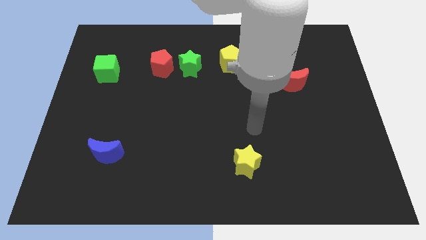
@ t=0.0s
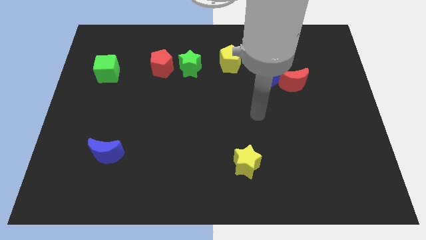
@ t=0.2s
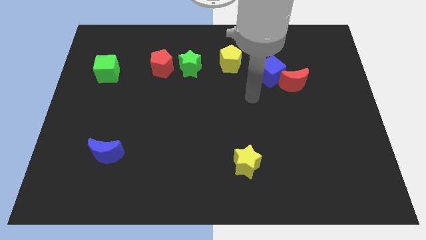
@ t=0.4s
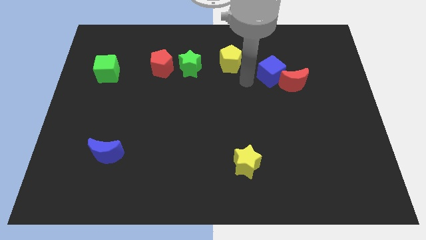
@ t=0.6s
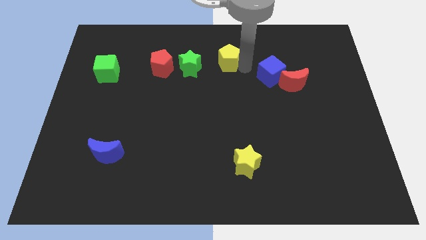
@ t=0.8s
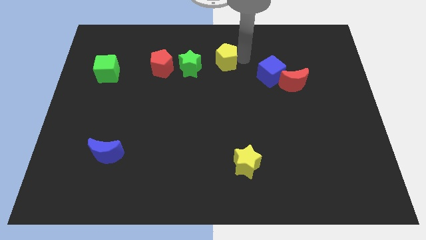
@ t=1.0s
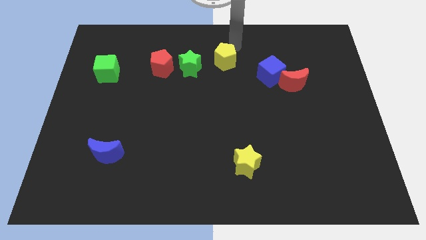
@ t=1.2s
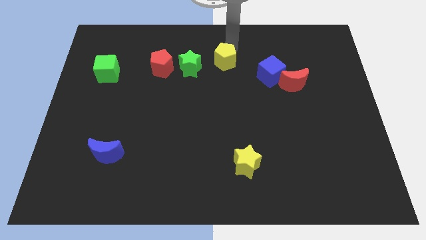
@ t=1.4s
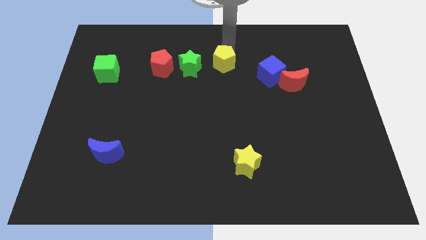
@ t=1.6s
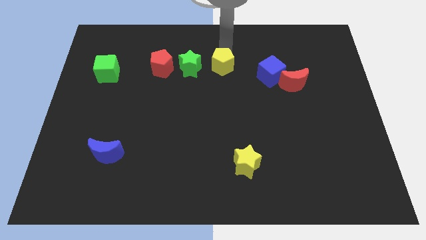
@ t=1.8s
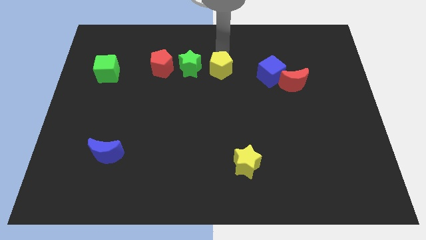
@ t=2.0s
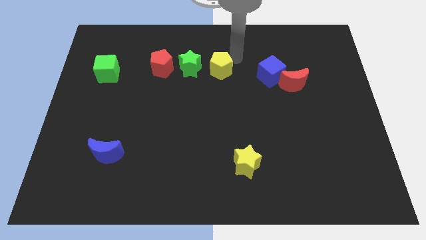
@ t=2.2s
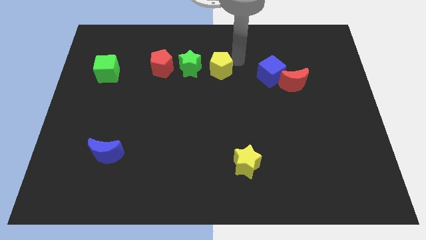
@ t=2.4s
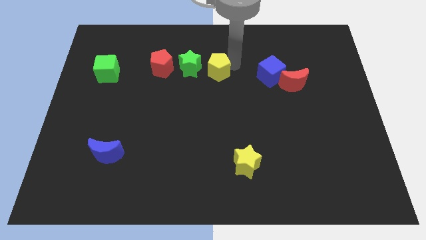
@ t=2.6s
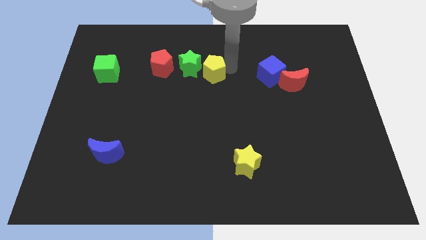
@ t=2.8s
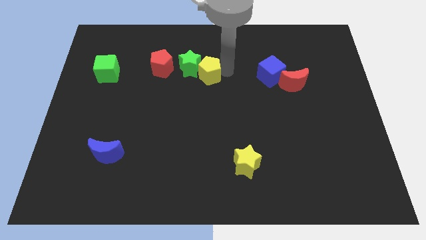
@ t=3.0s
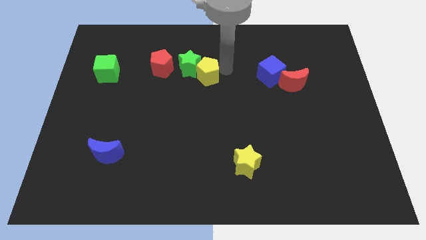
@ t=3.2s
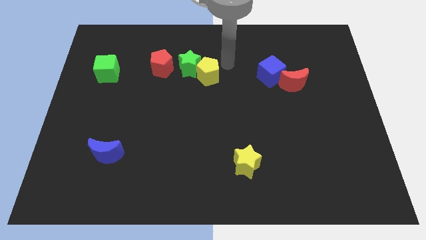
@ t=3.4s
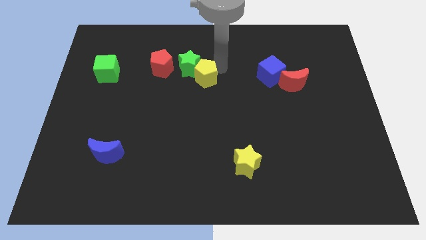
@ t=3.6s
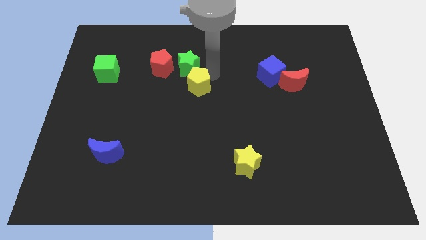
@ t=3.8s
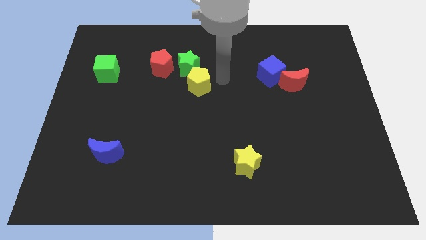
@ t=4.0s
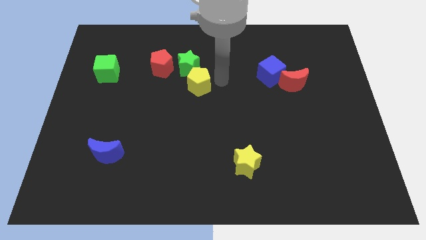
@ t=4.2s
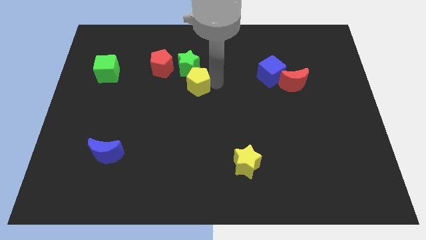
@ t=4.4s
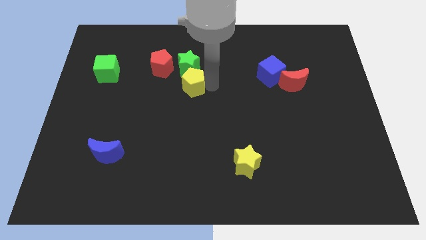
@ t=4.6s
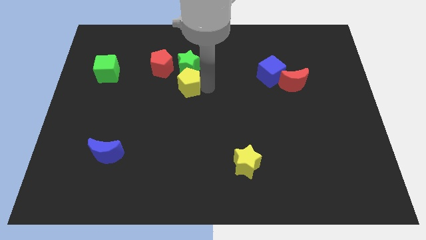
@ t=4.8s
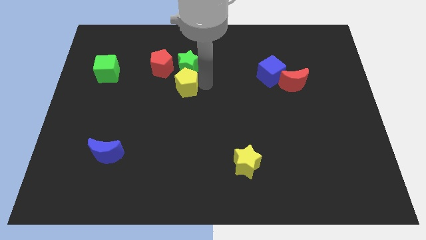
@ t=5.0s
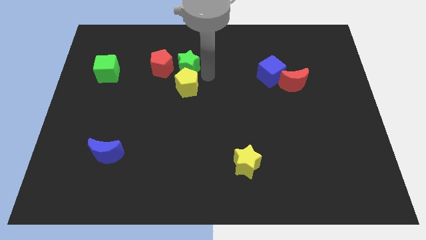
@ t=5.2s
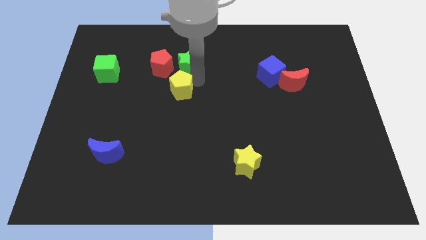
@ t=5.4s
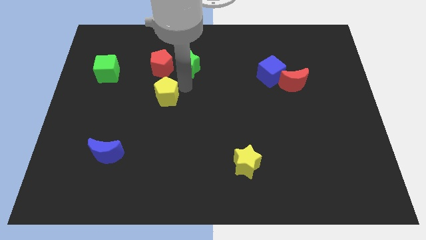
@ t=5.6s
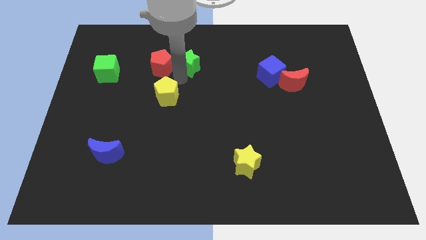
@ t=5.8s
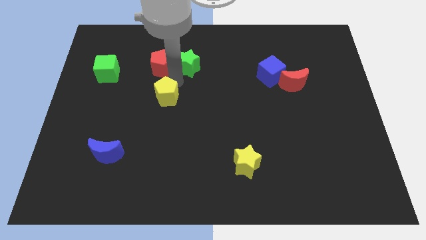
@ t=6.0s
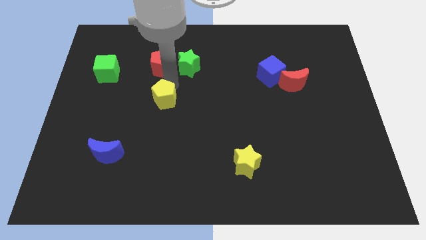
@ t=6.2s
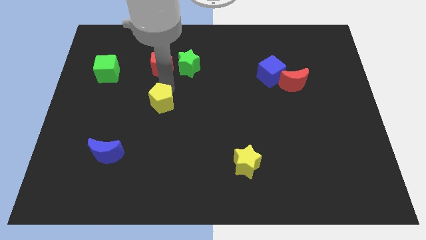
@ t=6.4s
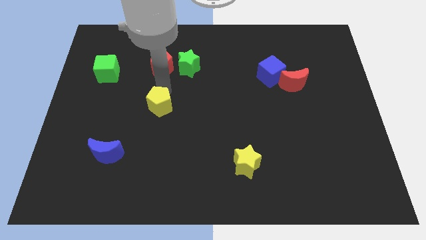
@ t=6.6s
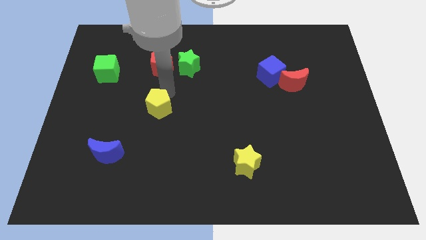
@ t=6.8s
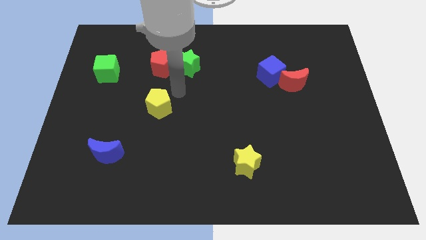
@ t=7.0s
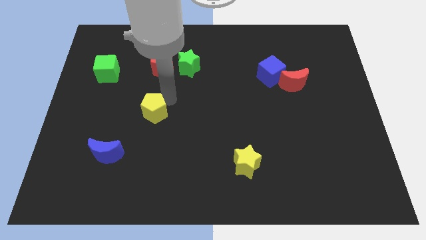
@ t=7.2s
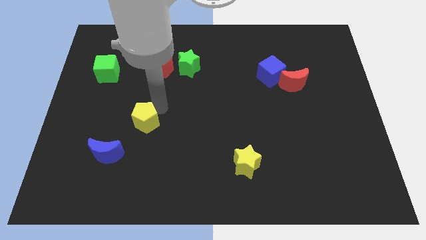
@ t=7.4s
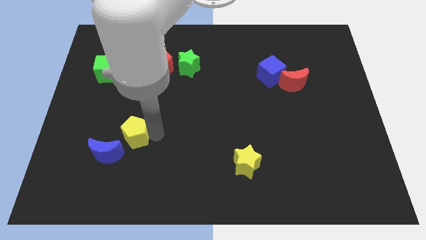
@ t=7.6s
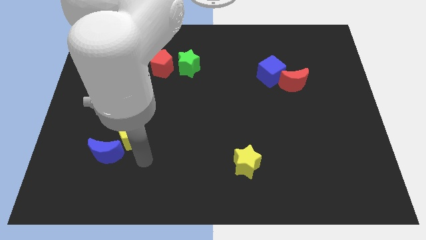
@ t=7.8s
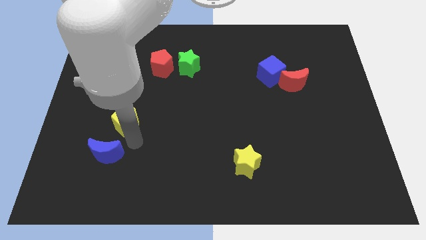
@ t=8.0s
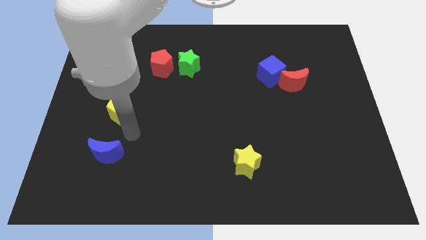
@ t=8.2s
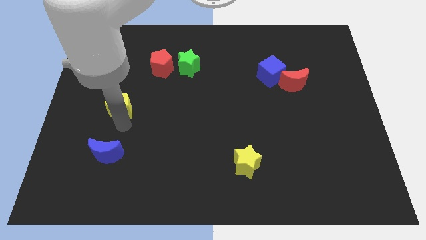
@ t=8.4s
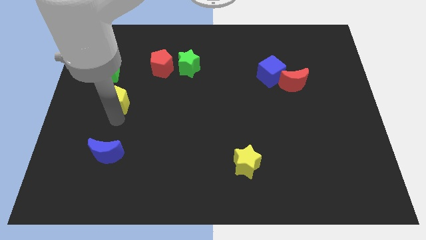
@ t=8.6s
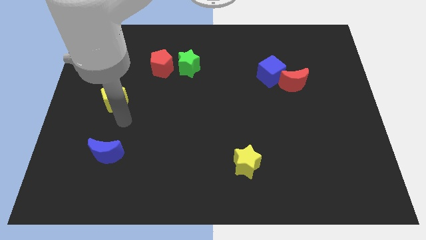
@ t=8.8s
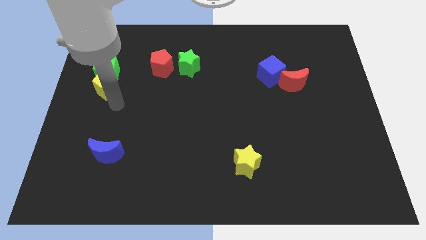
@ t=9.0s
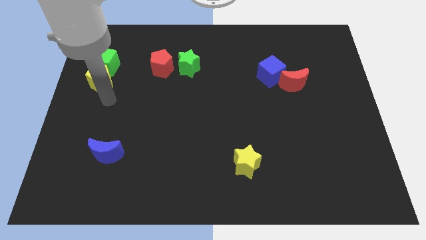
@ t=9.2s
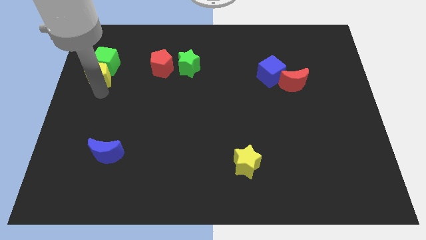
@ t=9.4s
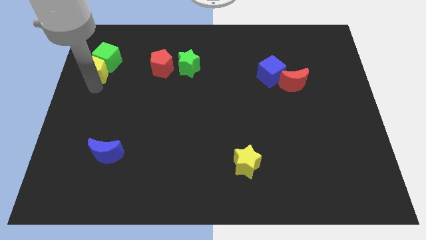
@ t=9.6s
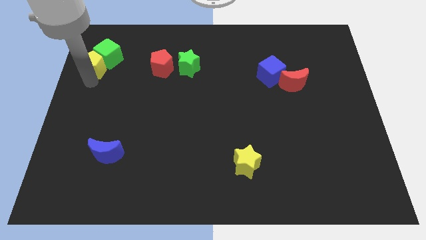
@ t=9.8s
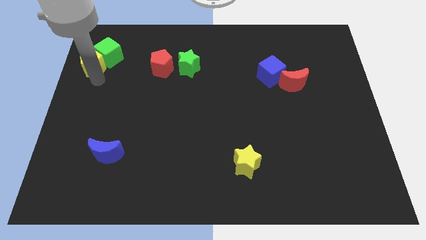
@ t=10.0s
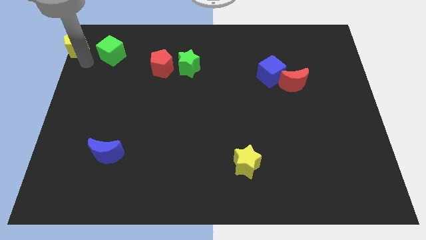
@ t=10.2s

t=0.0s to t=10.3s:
slide the yellow pentagon to the top left of the board

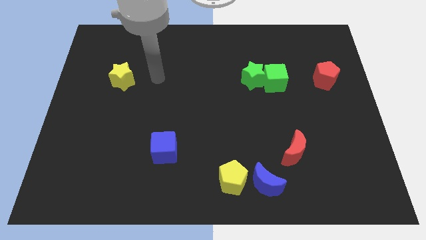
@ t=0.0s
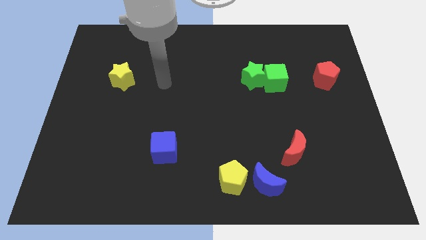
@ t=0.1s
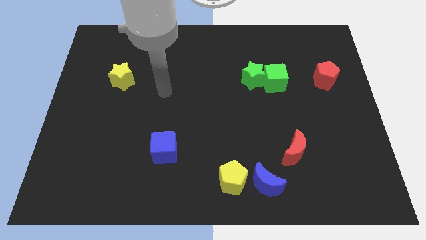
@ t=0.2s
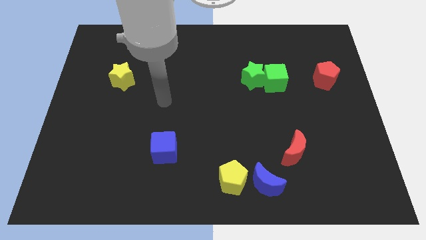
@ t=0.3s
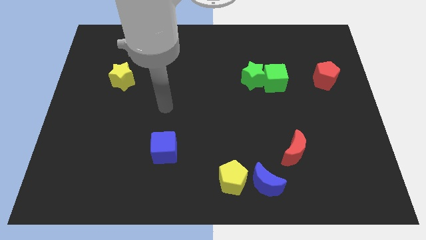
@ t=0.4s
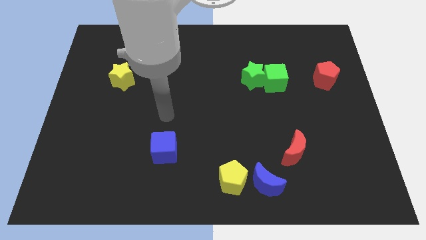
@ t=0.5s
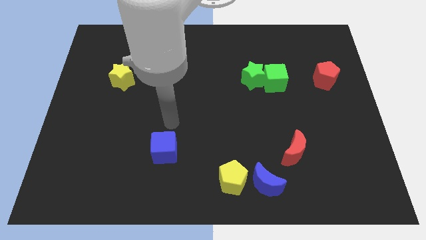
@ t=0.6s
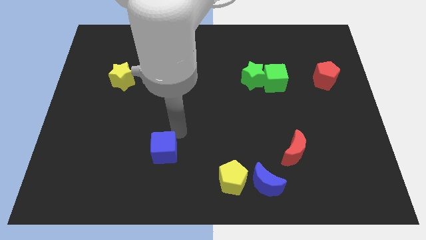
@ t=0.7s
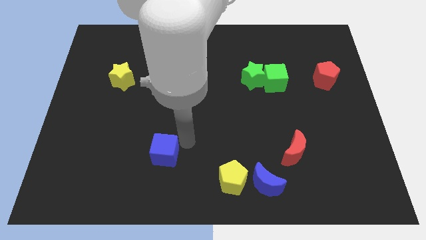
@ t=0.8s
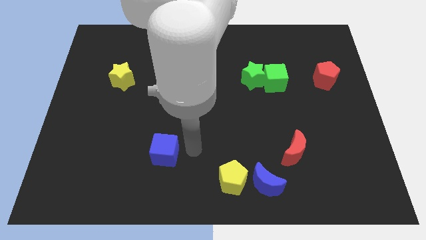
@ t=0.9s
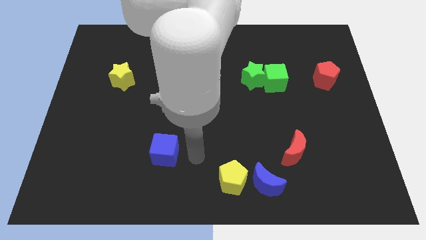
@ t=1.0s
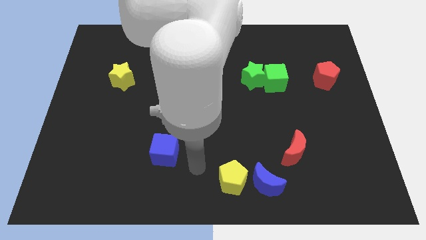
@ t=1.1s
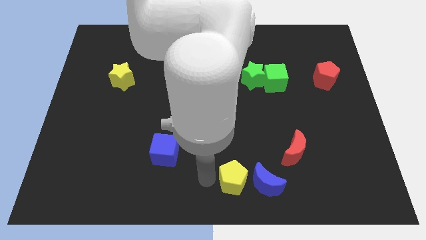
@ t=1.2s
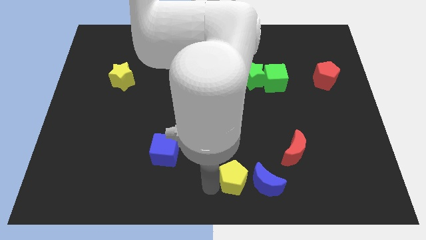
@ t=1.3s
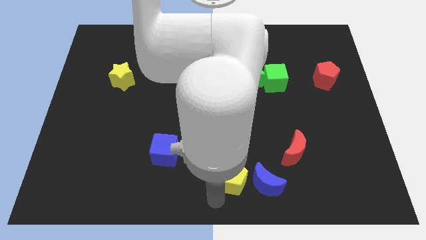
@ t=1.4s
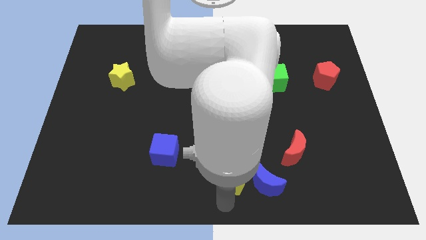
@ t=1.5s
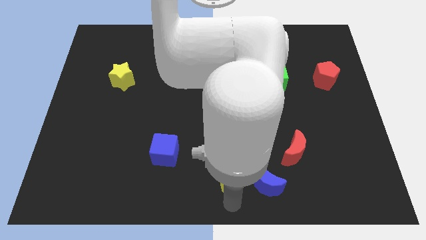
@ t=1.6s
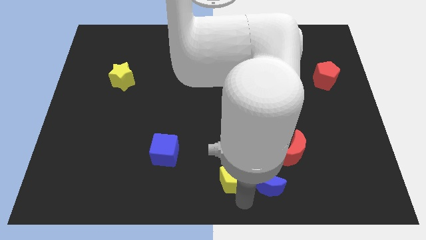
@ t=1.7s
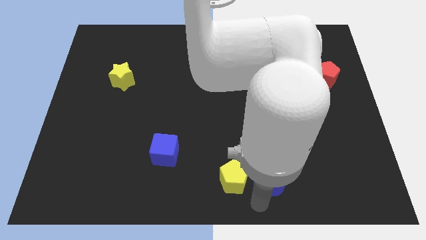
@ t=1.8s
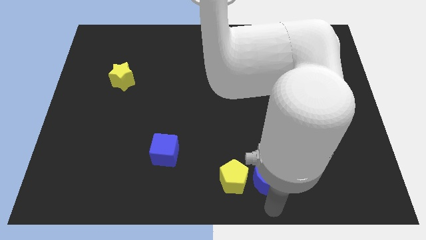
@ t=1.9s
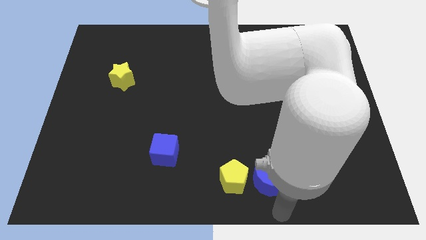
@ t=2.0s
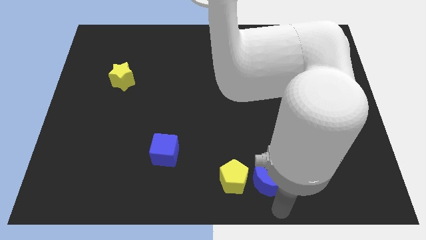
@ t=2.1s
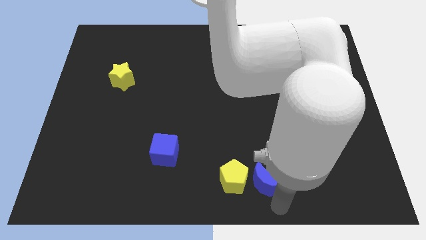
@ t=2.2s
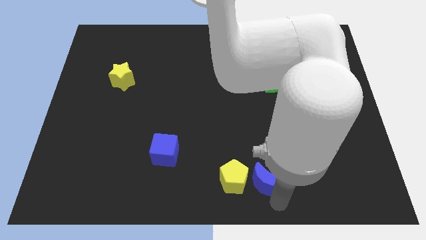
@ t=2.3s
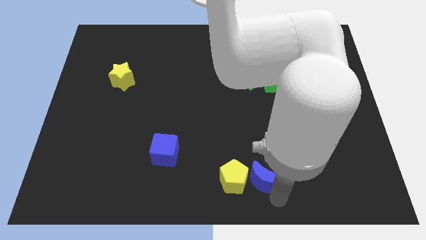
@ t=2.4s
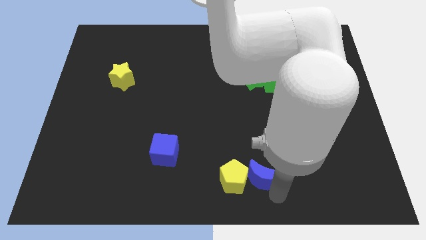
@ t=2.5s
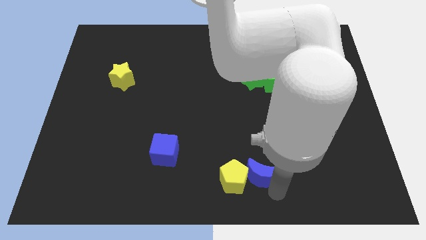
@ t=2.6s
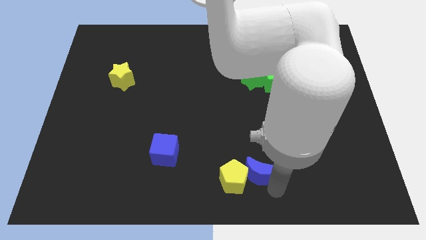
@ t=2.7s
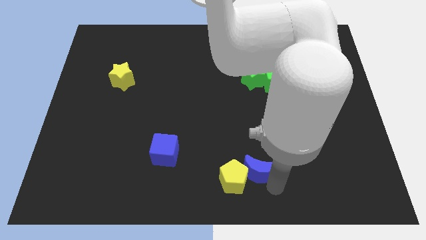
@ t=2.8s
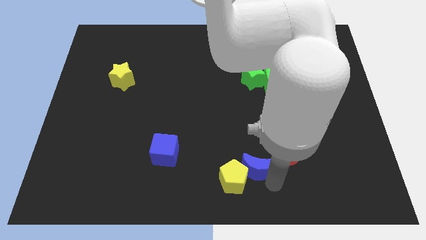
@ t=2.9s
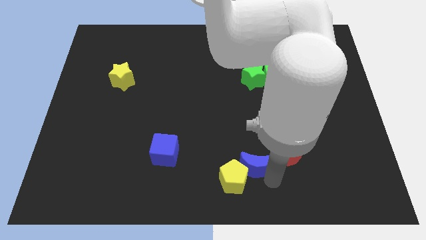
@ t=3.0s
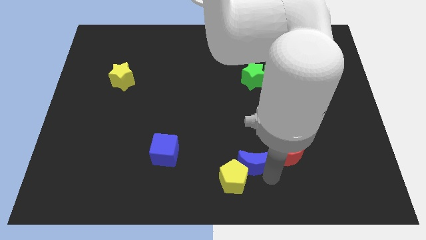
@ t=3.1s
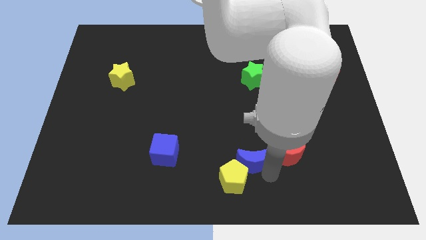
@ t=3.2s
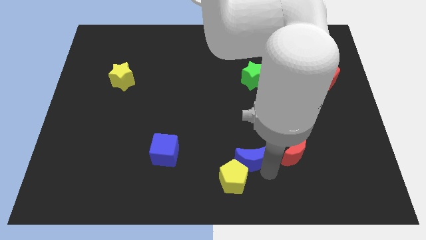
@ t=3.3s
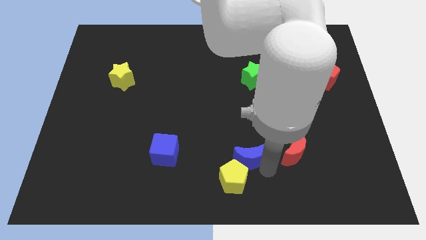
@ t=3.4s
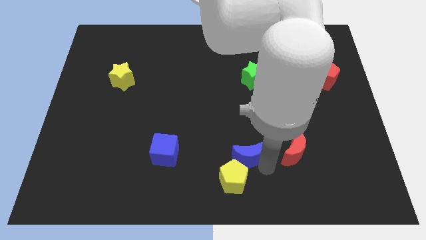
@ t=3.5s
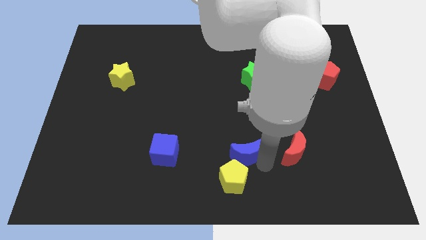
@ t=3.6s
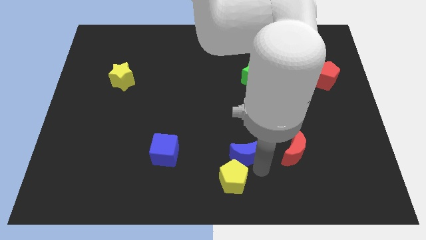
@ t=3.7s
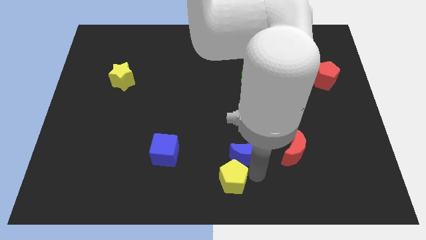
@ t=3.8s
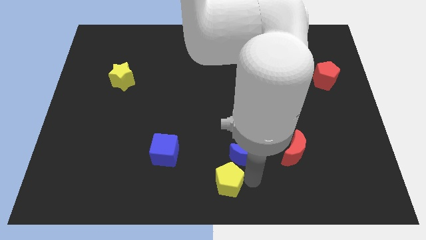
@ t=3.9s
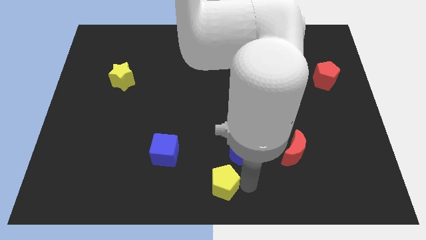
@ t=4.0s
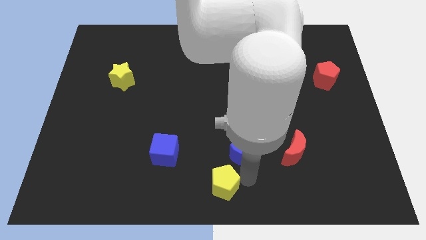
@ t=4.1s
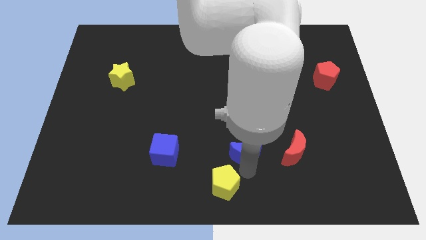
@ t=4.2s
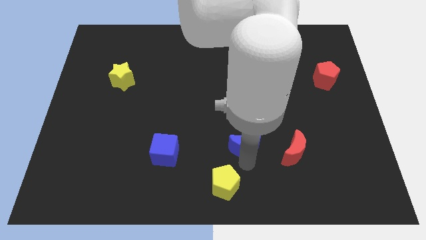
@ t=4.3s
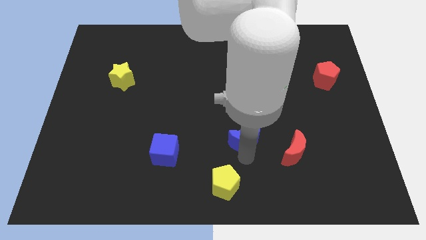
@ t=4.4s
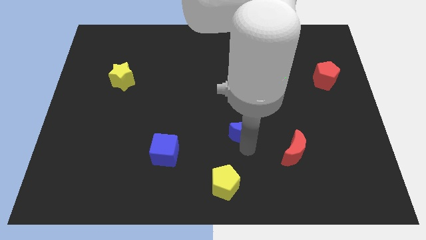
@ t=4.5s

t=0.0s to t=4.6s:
move the blue moon to the center of the board
